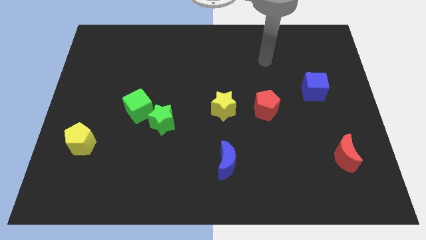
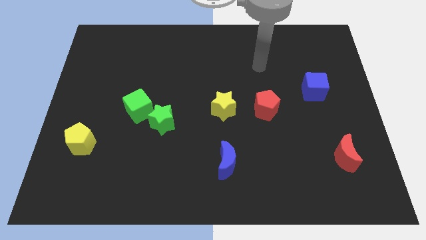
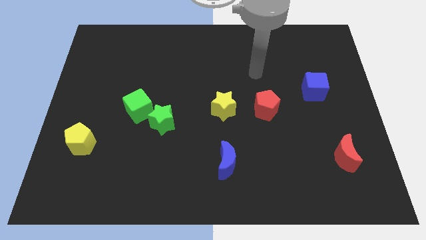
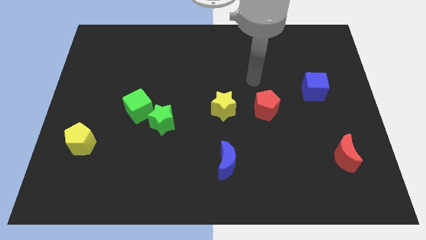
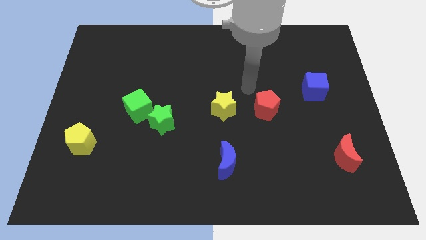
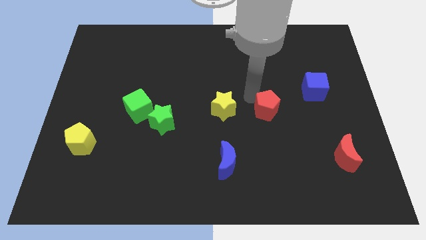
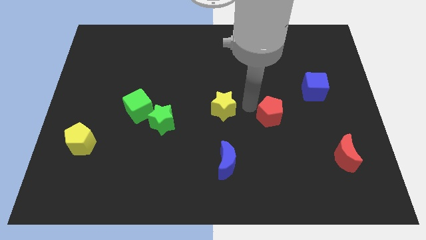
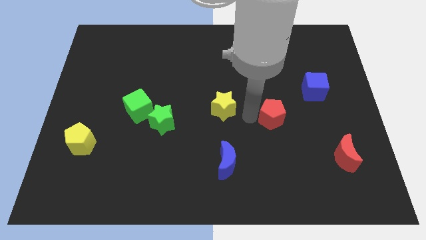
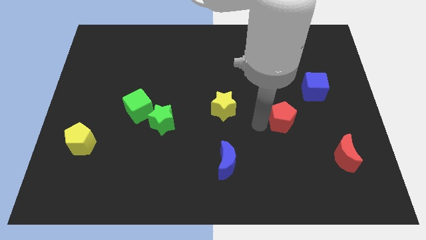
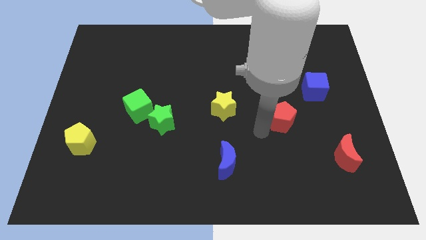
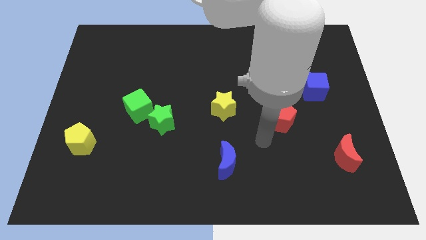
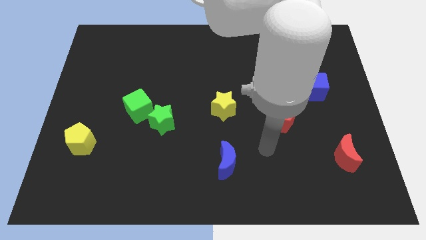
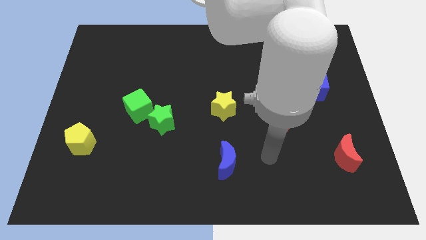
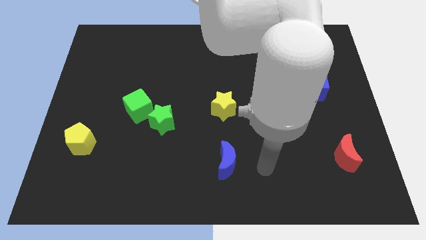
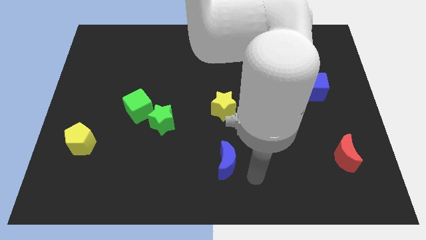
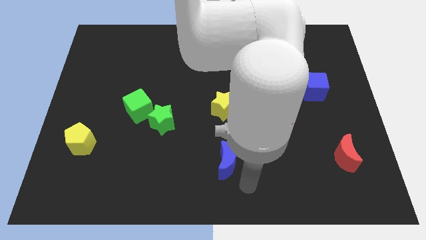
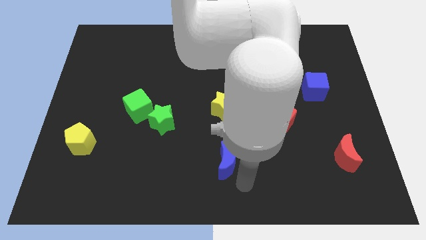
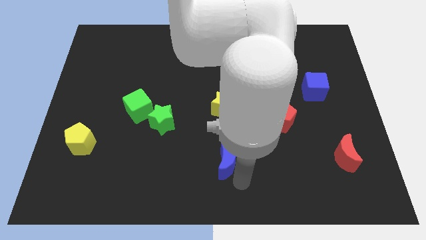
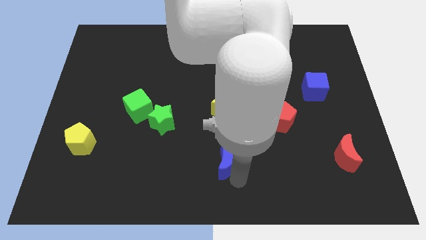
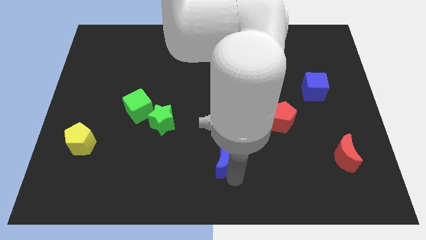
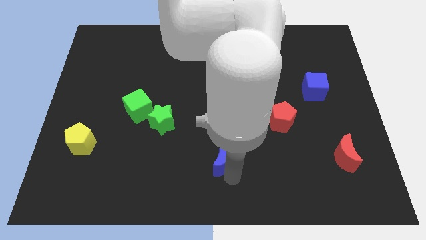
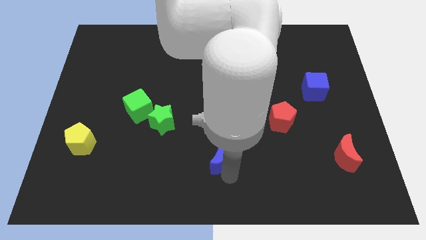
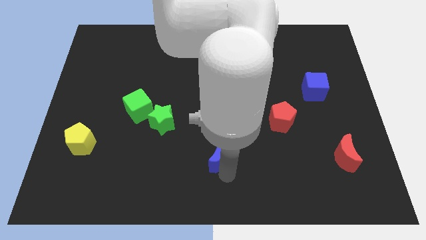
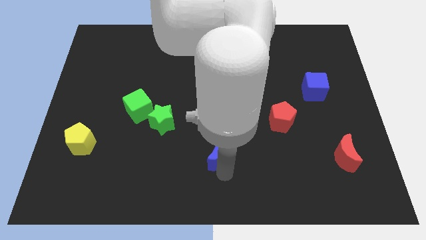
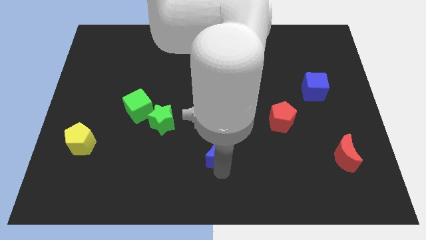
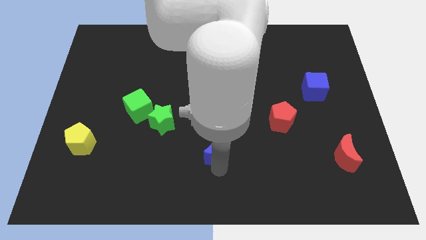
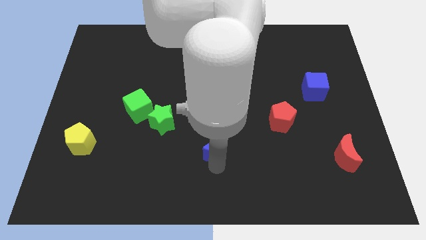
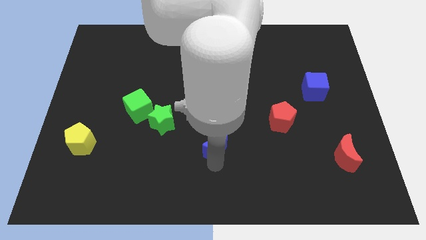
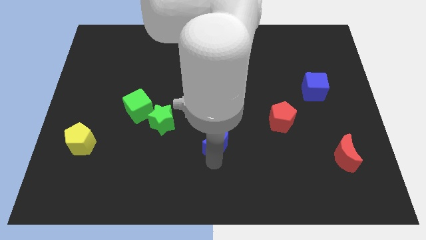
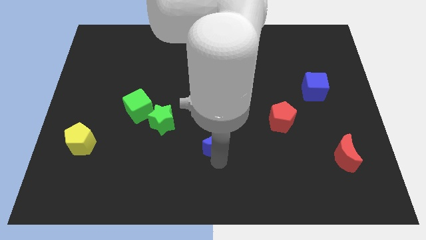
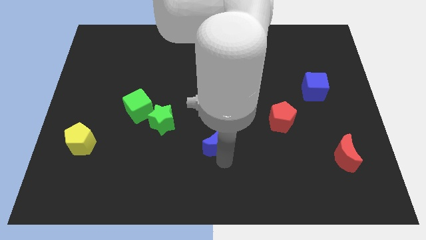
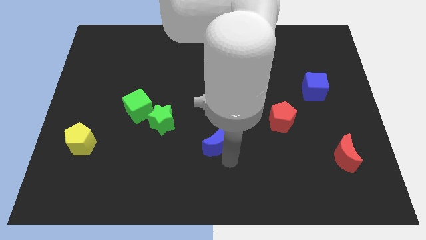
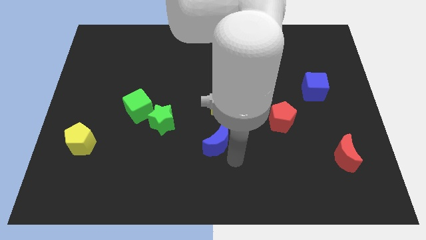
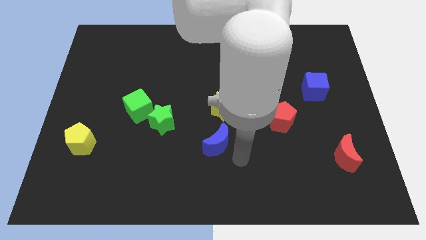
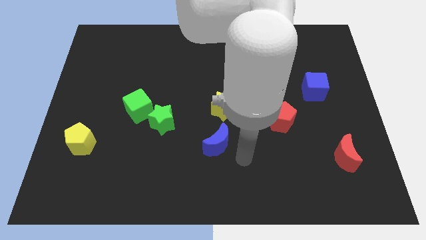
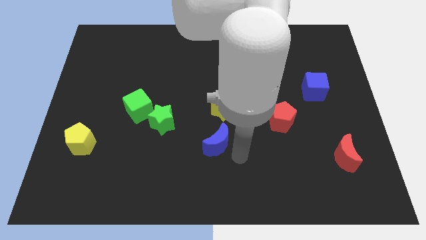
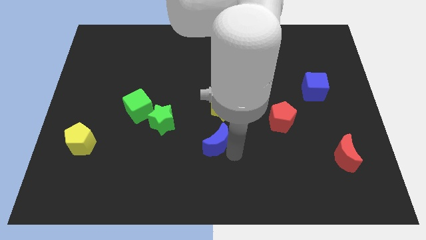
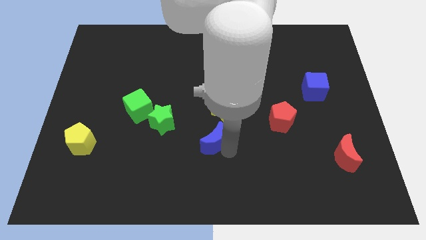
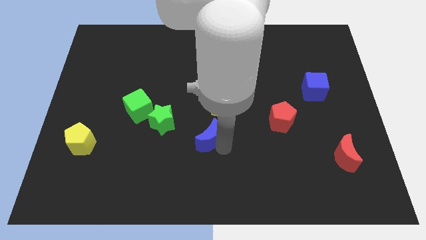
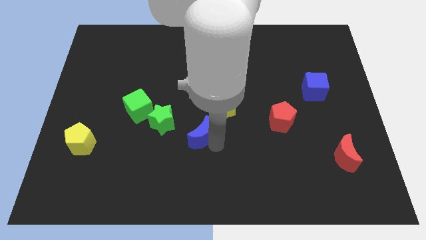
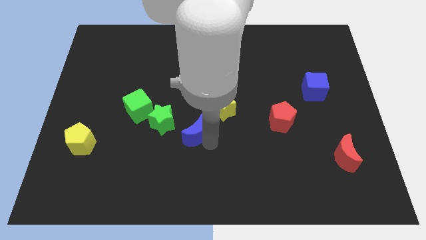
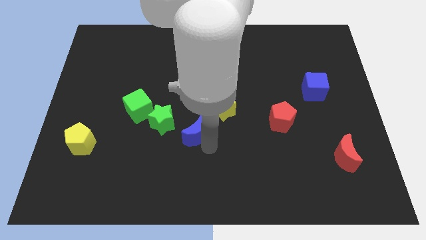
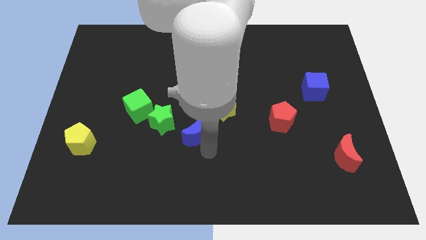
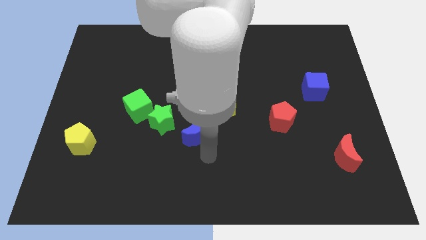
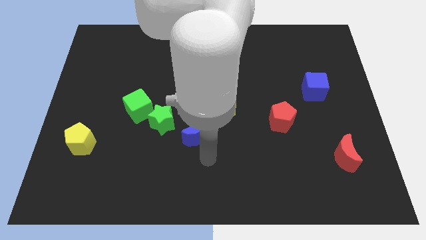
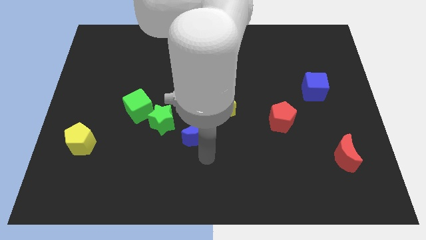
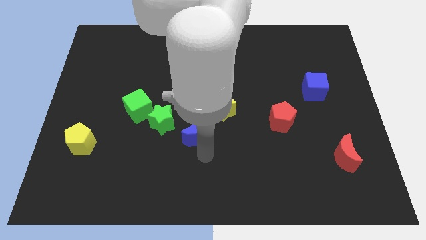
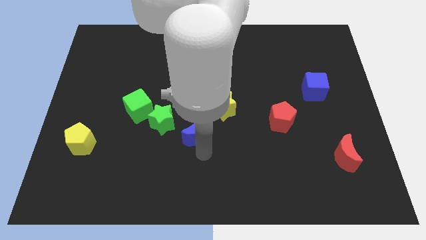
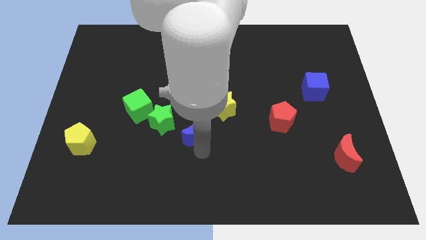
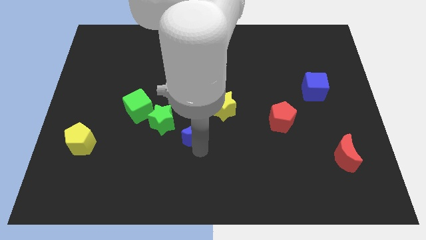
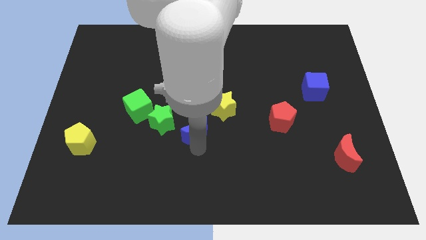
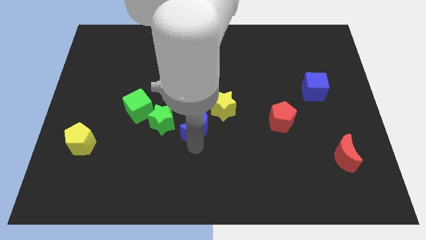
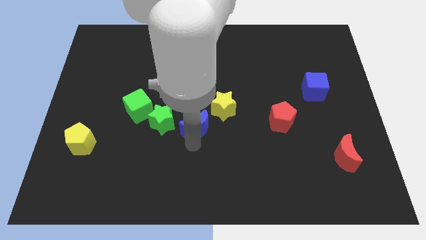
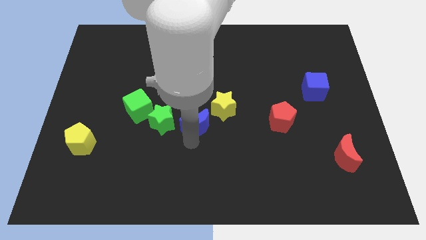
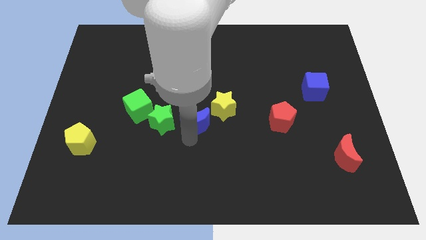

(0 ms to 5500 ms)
move the blue moon to the right side of the green cube

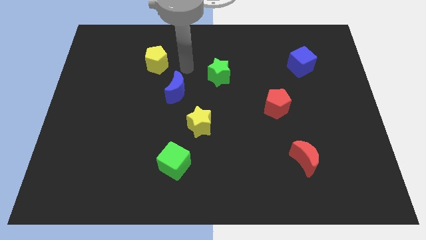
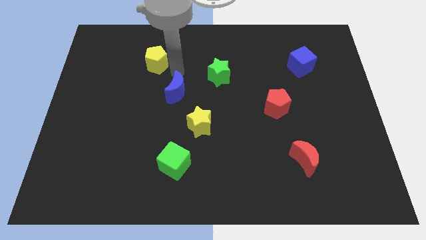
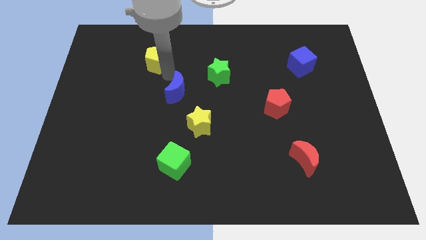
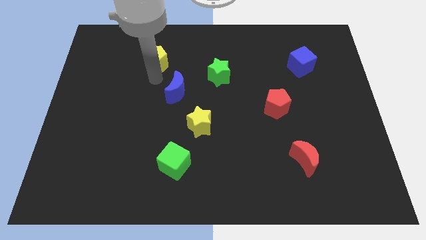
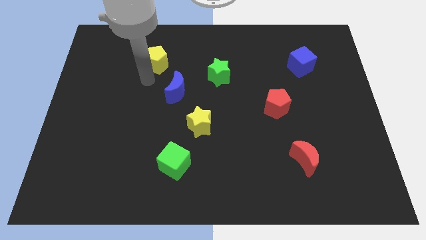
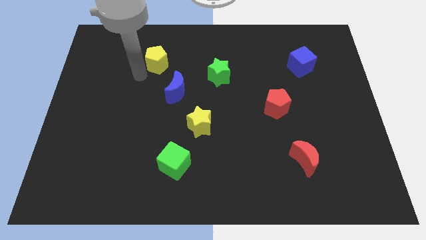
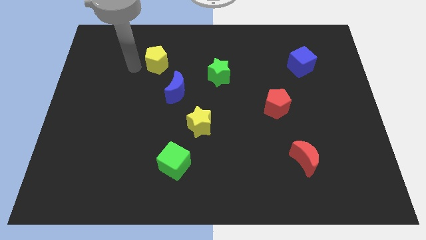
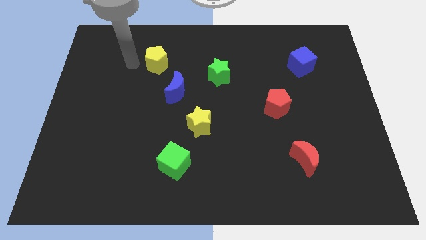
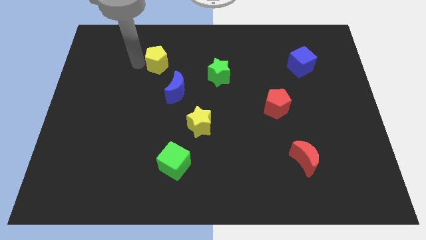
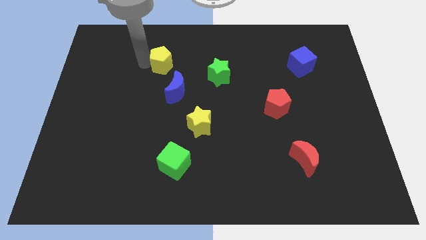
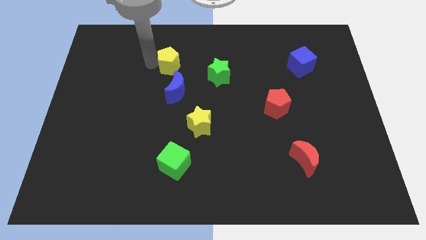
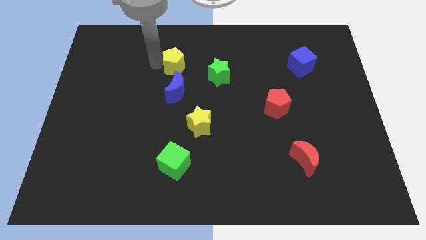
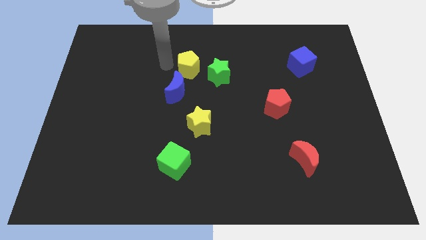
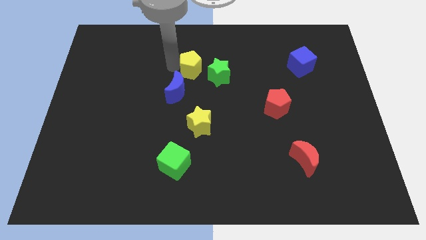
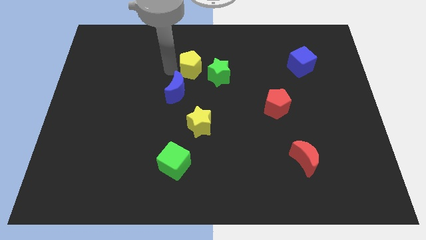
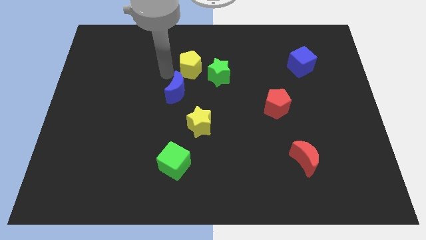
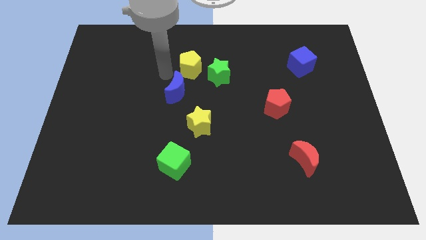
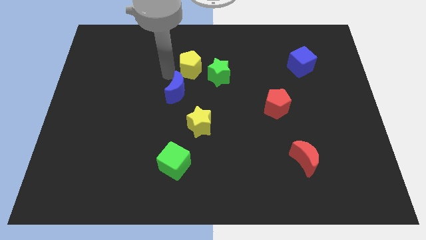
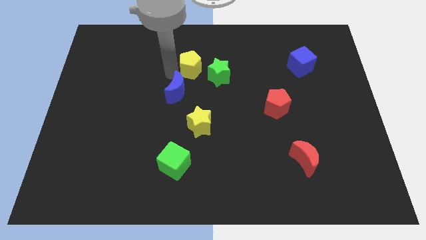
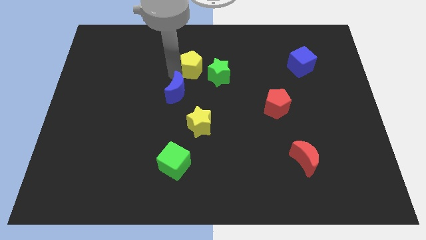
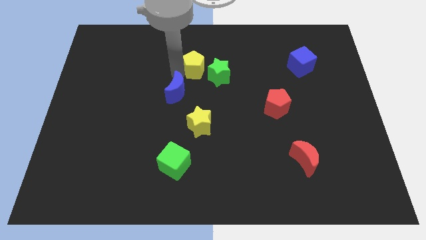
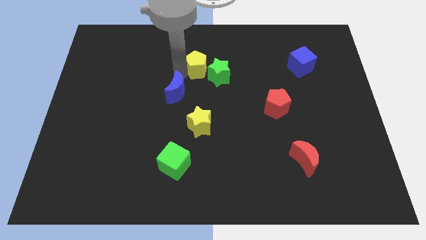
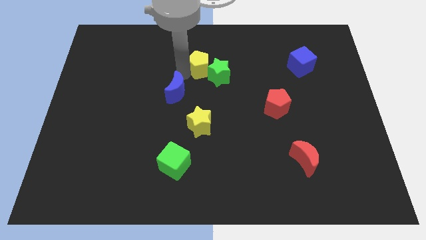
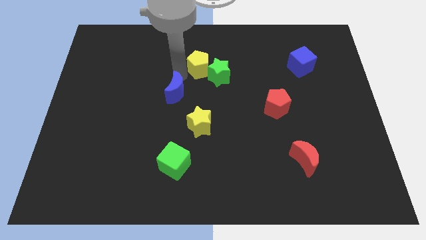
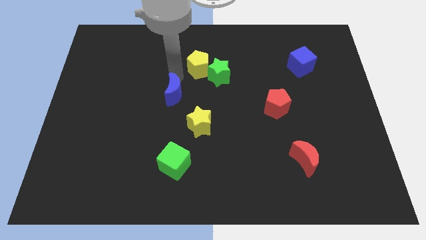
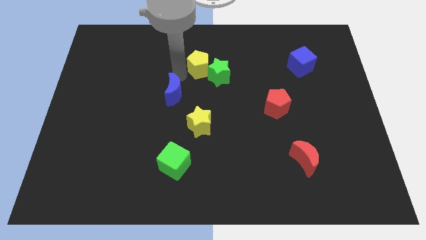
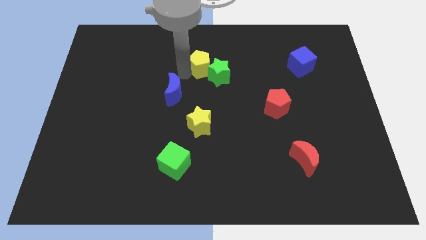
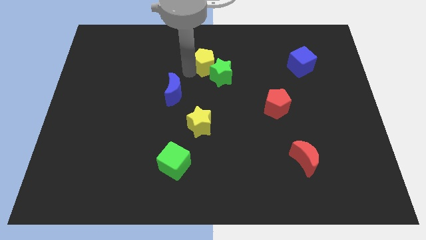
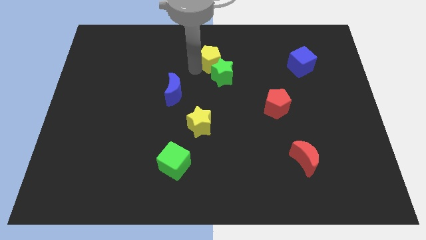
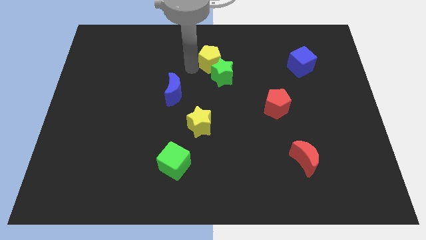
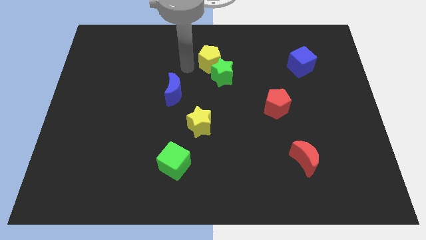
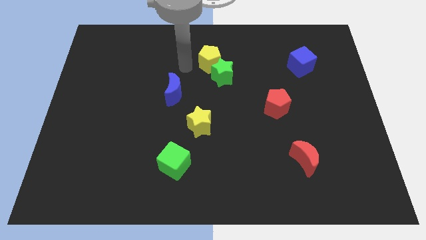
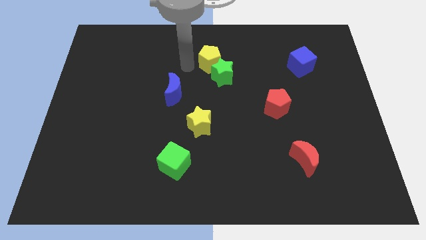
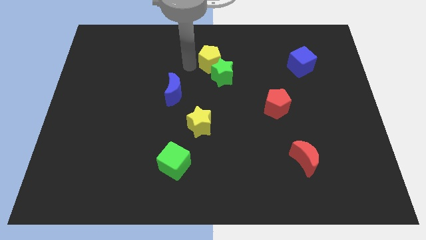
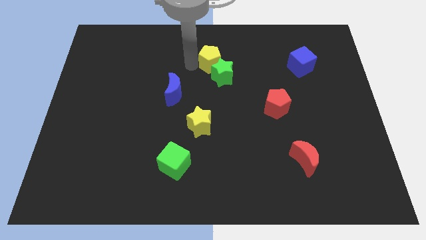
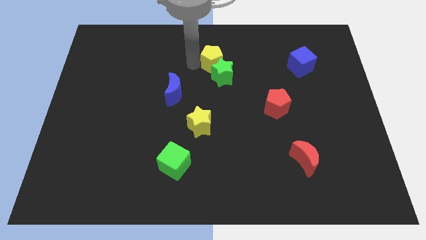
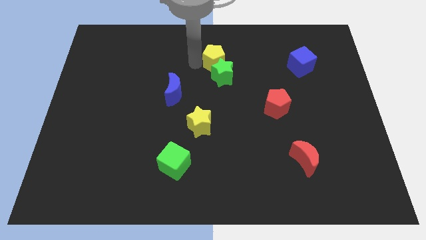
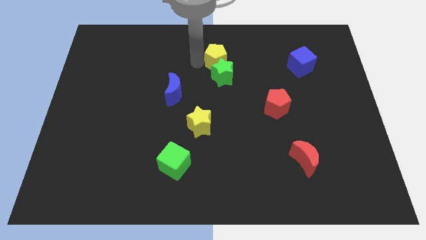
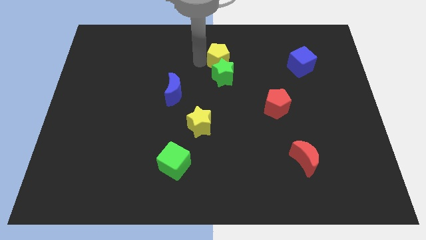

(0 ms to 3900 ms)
put the yellow pentagon to the top right side of the green star
